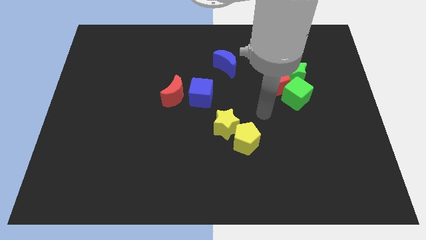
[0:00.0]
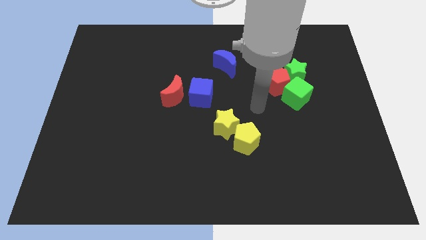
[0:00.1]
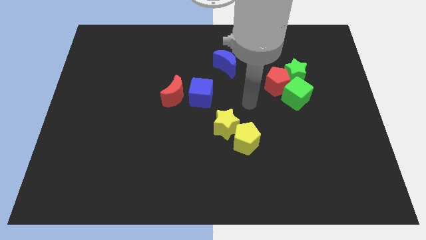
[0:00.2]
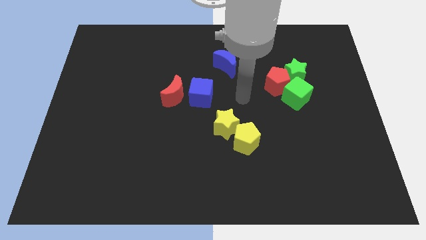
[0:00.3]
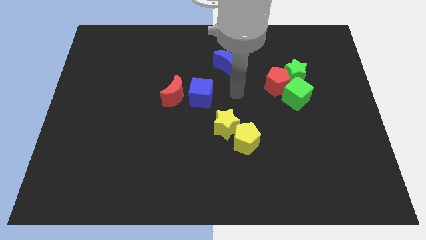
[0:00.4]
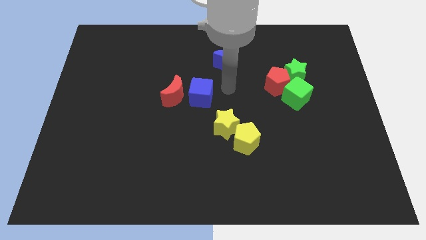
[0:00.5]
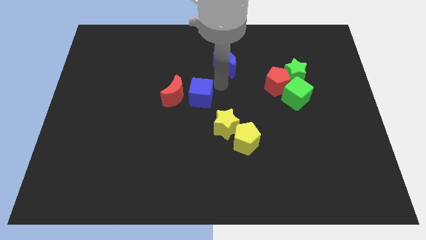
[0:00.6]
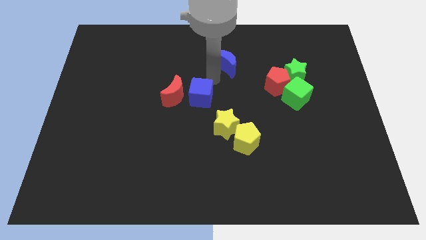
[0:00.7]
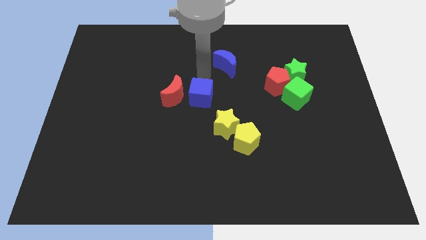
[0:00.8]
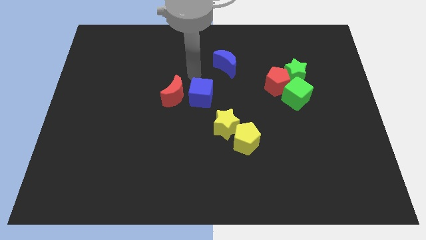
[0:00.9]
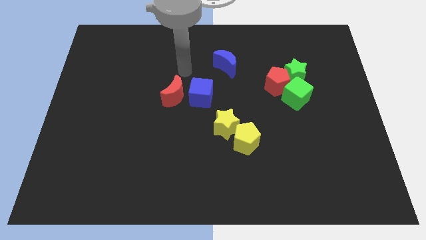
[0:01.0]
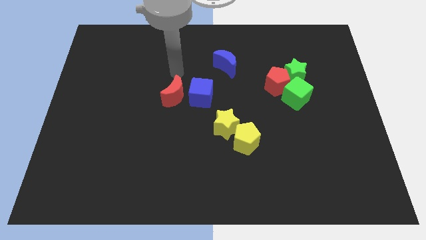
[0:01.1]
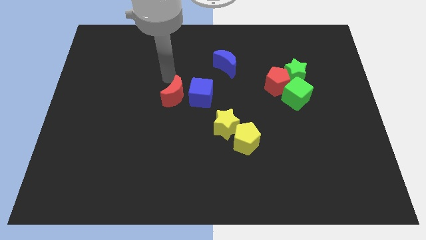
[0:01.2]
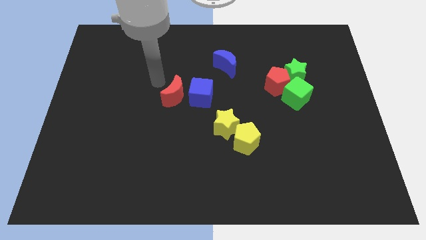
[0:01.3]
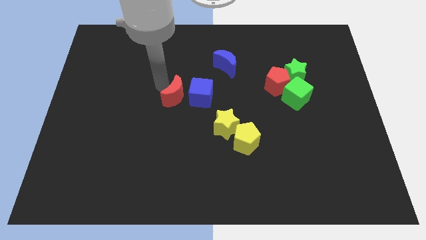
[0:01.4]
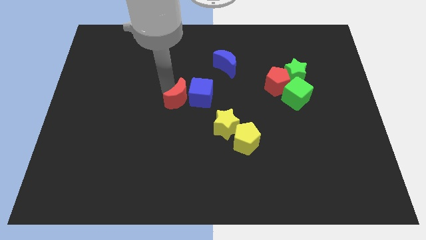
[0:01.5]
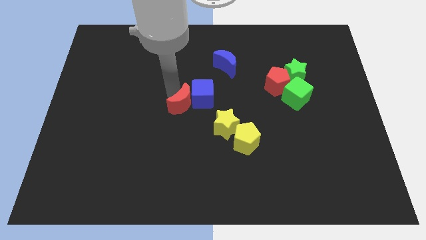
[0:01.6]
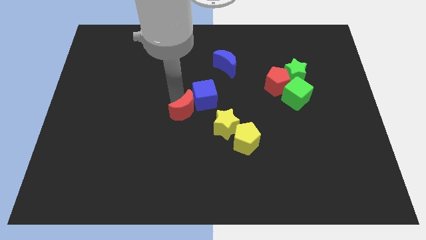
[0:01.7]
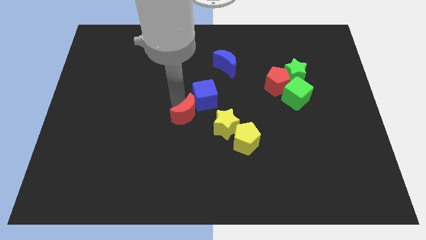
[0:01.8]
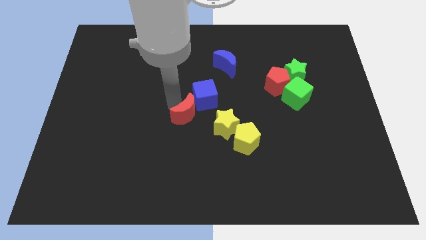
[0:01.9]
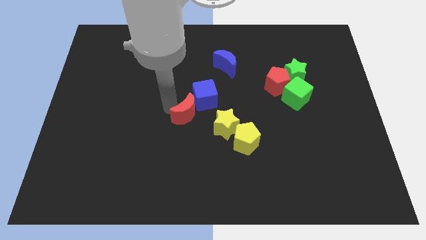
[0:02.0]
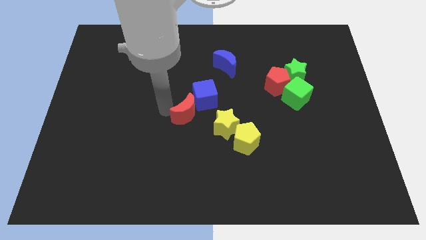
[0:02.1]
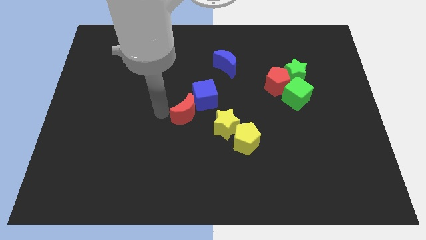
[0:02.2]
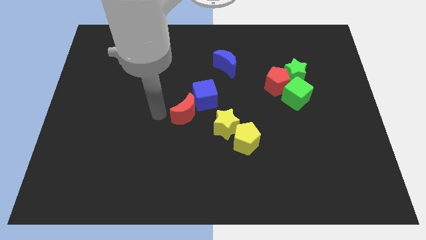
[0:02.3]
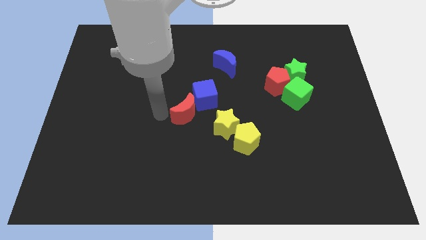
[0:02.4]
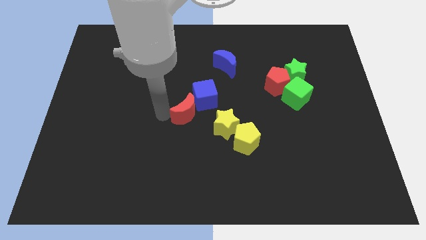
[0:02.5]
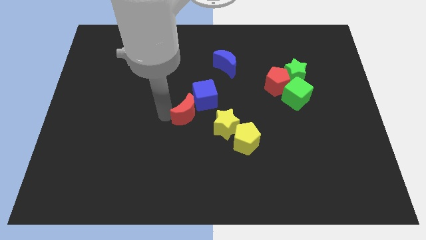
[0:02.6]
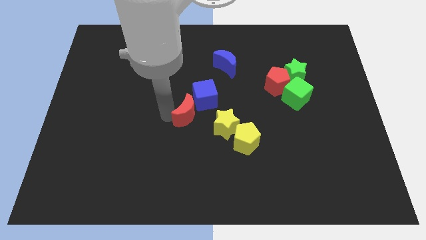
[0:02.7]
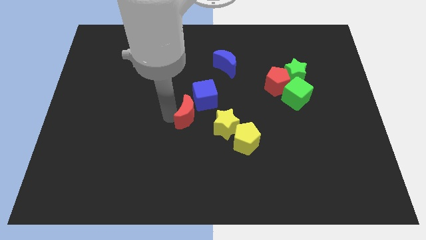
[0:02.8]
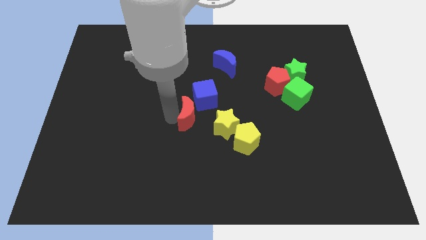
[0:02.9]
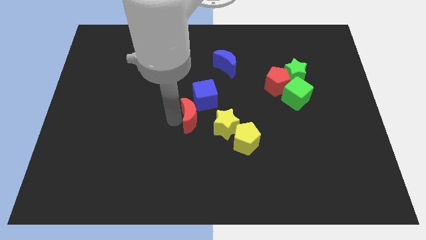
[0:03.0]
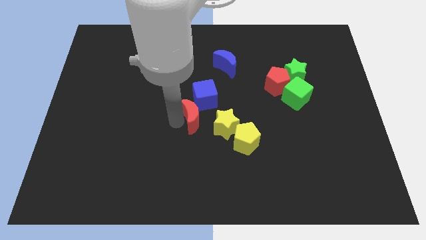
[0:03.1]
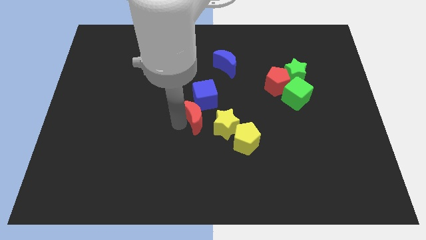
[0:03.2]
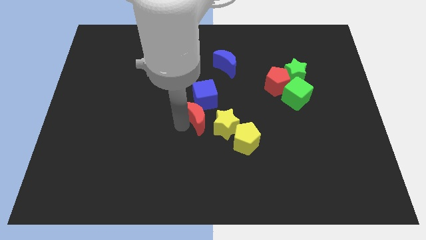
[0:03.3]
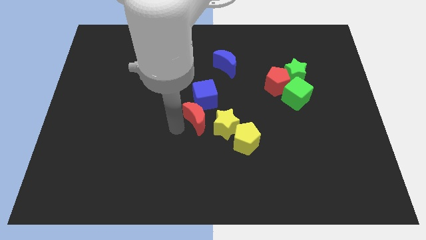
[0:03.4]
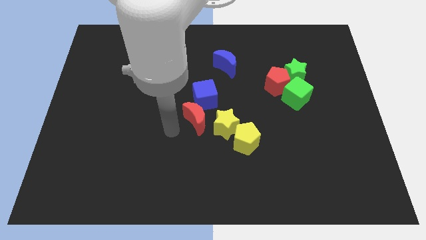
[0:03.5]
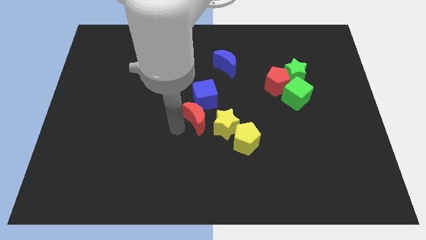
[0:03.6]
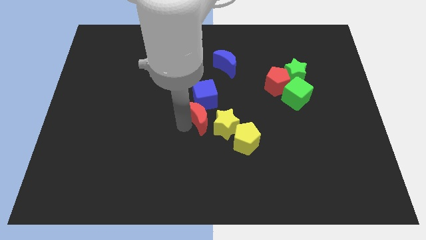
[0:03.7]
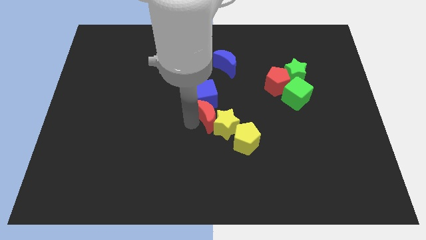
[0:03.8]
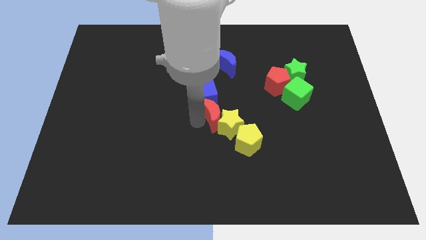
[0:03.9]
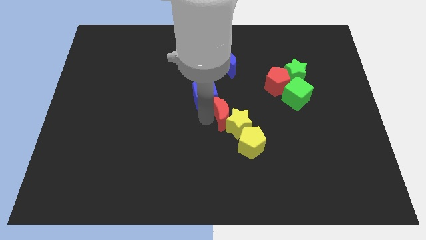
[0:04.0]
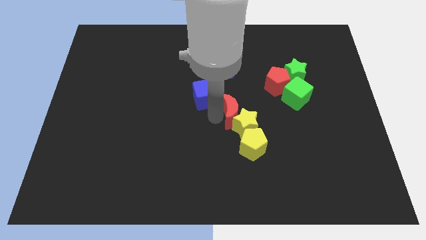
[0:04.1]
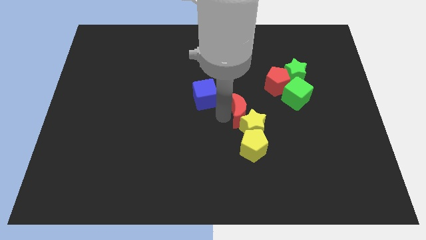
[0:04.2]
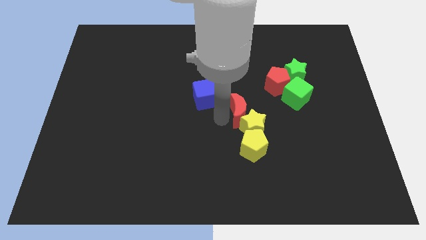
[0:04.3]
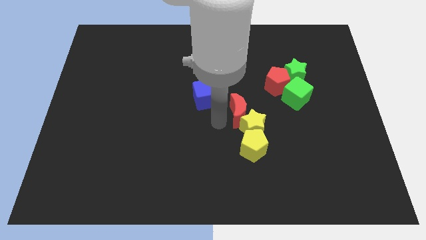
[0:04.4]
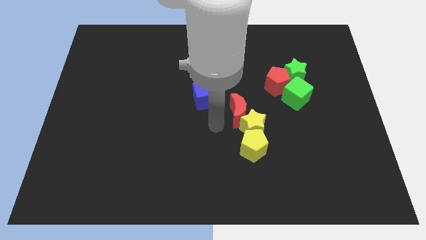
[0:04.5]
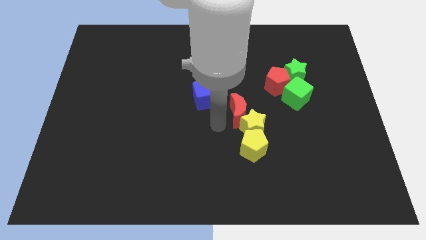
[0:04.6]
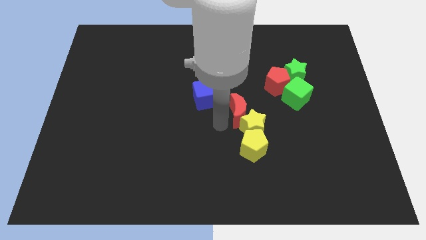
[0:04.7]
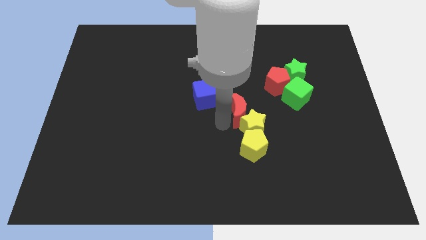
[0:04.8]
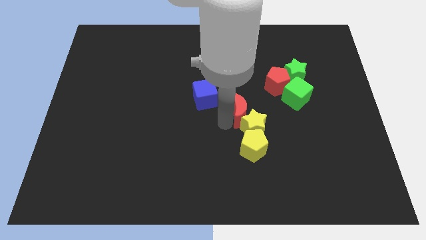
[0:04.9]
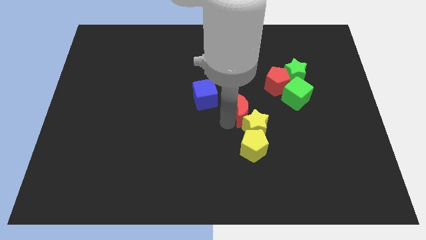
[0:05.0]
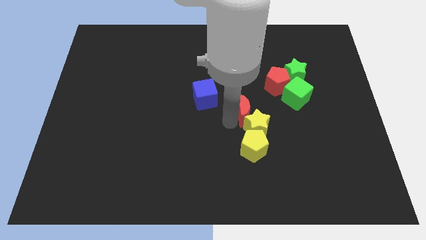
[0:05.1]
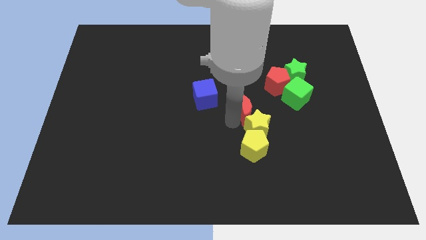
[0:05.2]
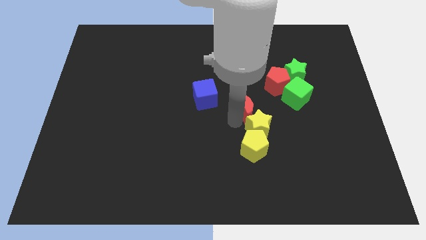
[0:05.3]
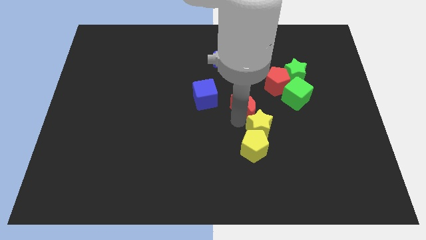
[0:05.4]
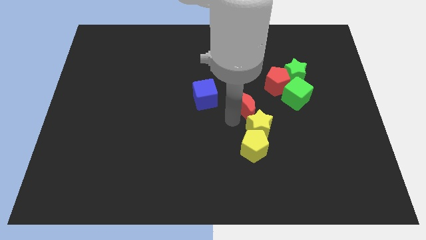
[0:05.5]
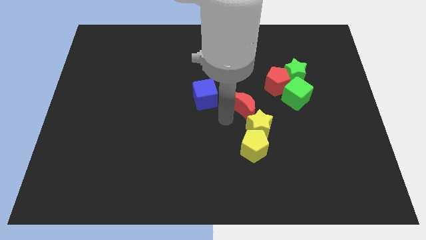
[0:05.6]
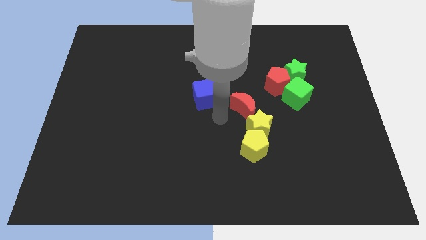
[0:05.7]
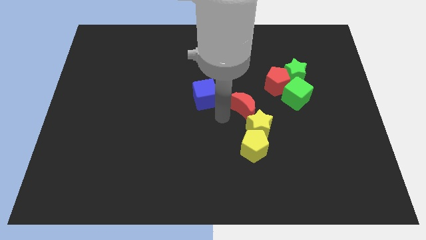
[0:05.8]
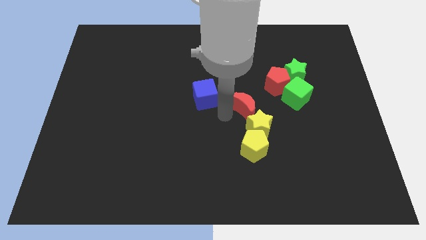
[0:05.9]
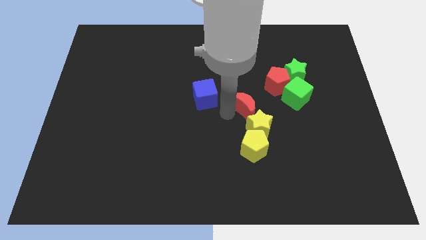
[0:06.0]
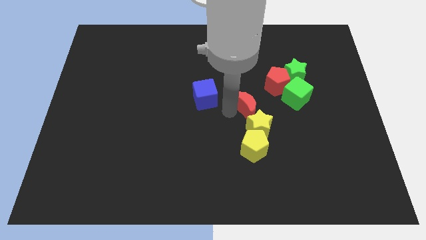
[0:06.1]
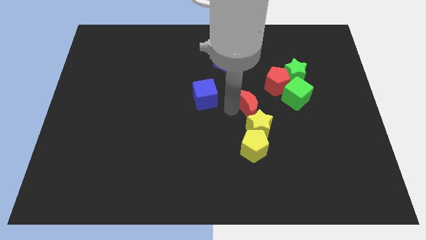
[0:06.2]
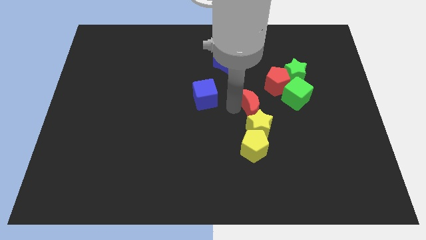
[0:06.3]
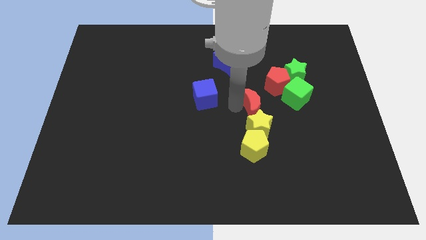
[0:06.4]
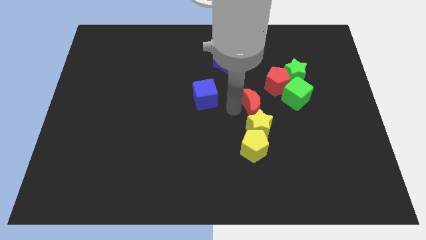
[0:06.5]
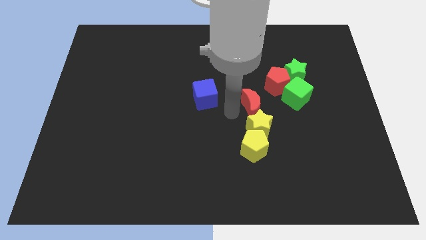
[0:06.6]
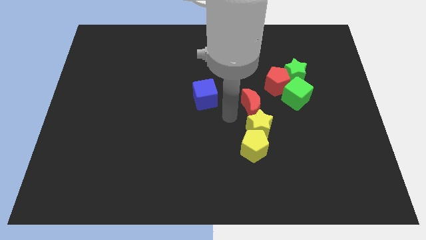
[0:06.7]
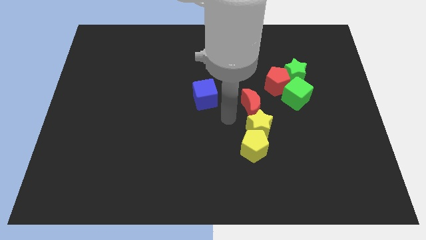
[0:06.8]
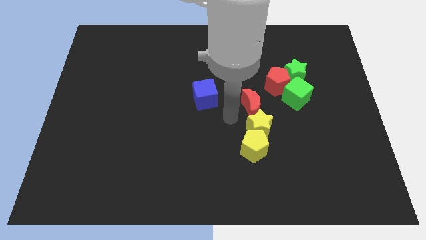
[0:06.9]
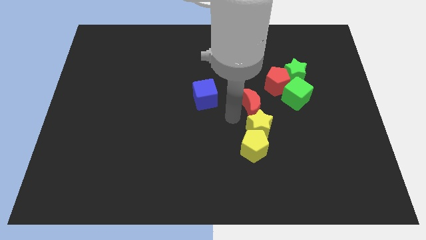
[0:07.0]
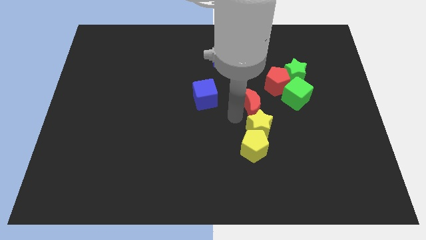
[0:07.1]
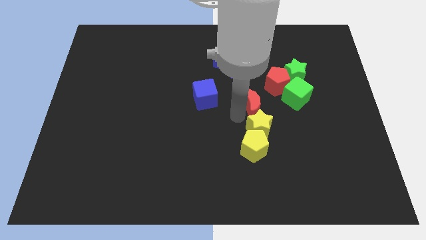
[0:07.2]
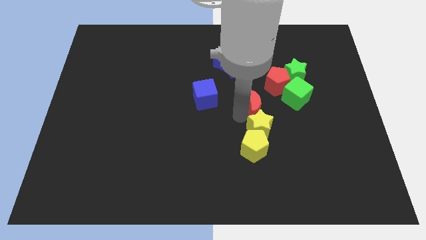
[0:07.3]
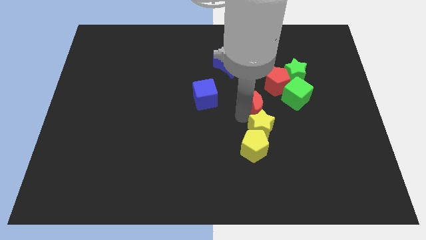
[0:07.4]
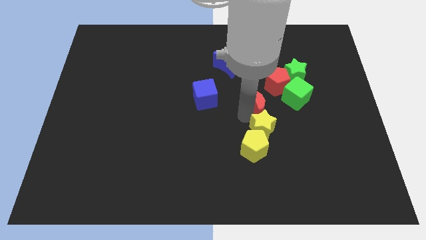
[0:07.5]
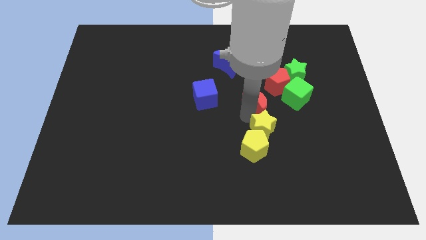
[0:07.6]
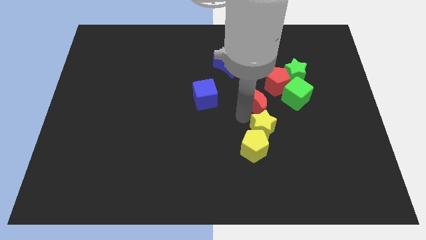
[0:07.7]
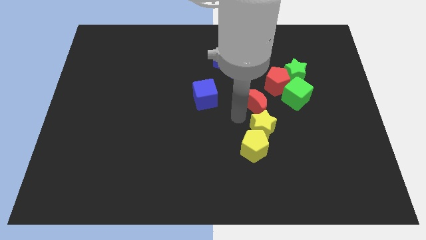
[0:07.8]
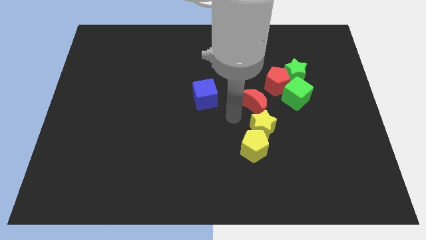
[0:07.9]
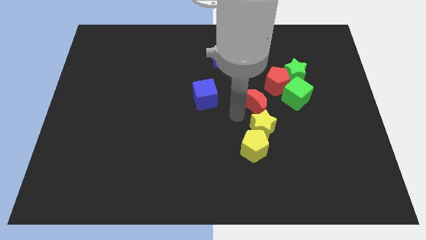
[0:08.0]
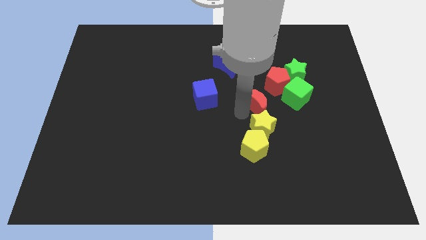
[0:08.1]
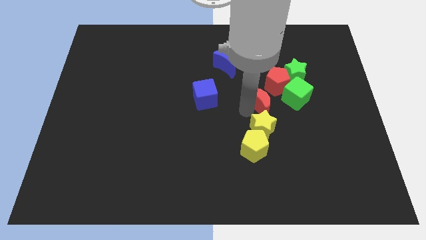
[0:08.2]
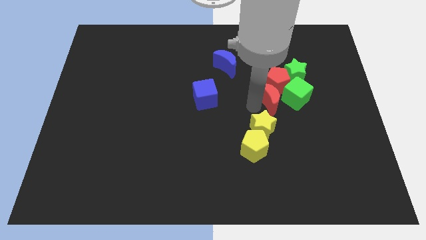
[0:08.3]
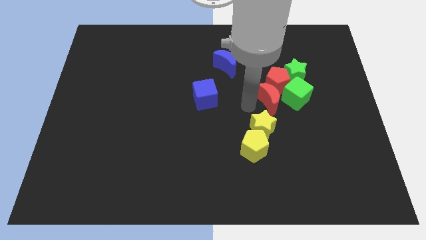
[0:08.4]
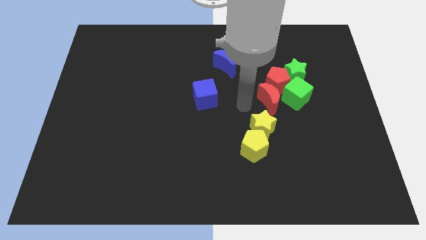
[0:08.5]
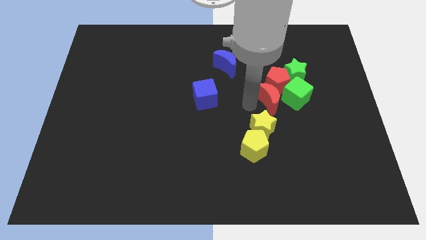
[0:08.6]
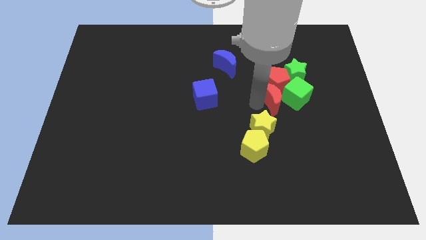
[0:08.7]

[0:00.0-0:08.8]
push the red moon close to the green cube
